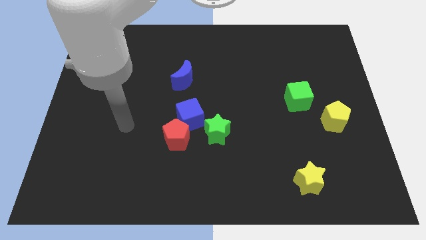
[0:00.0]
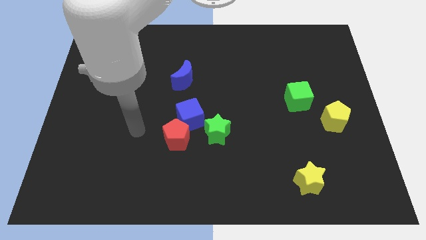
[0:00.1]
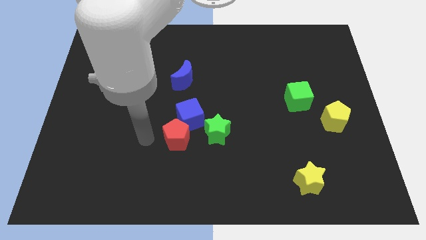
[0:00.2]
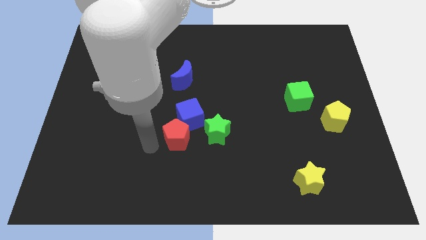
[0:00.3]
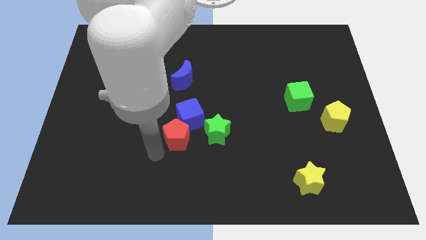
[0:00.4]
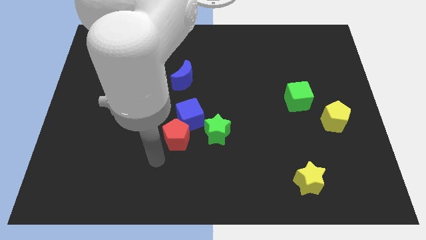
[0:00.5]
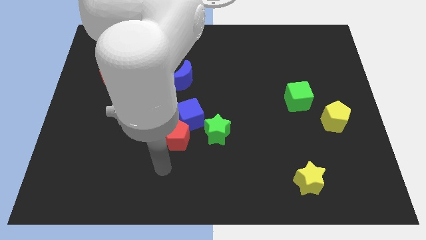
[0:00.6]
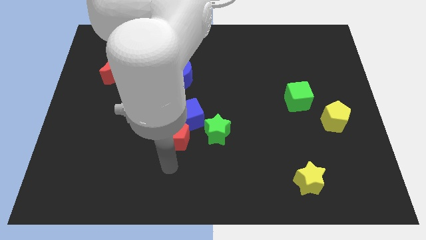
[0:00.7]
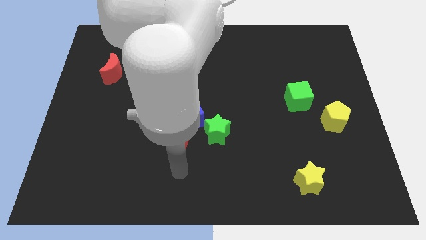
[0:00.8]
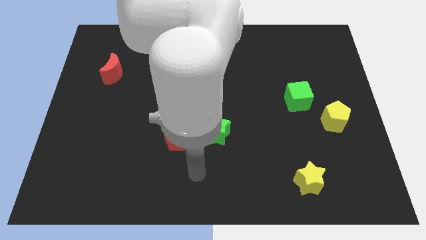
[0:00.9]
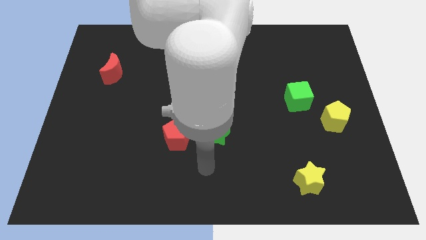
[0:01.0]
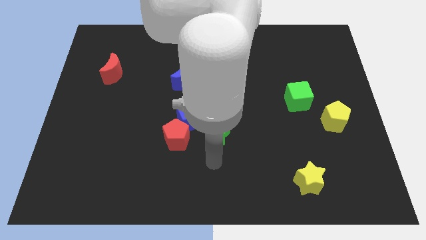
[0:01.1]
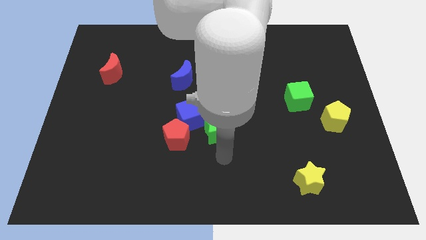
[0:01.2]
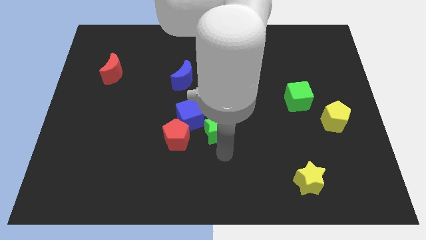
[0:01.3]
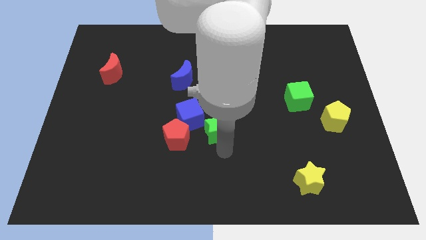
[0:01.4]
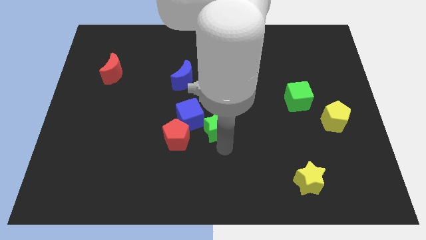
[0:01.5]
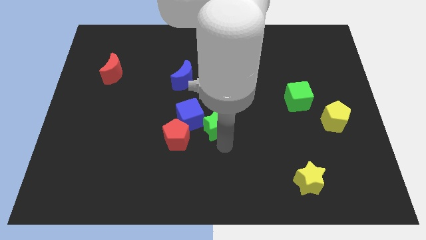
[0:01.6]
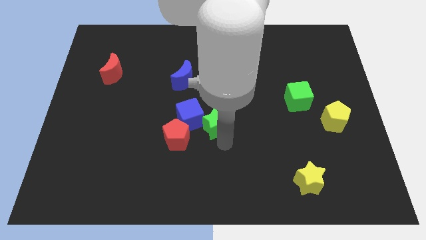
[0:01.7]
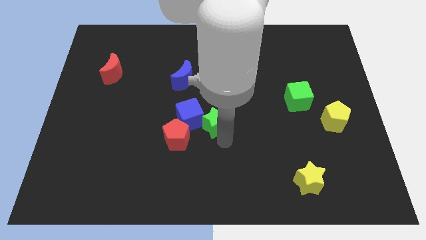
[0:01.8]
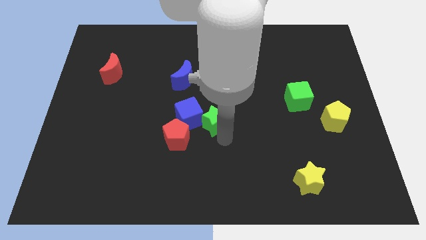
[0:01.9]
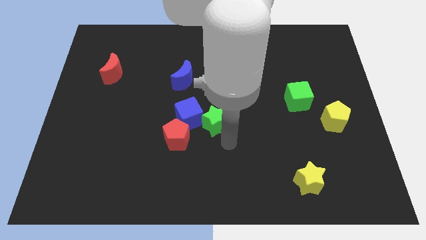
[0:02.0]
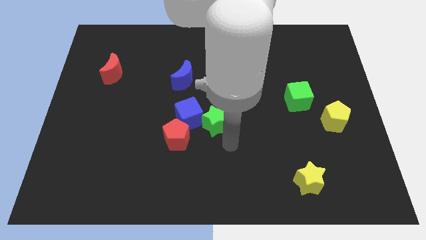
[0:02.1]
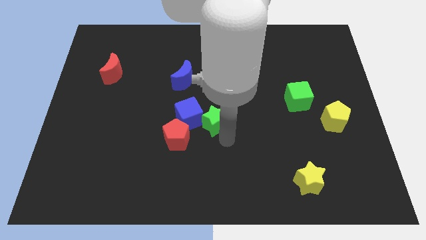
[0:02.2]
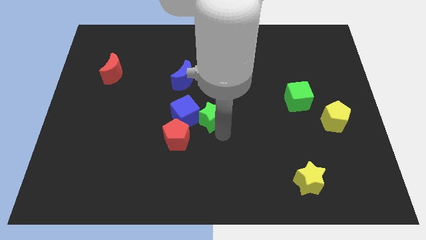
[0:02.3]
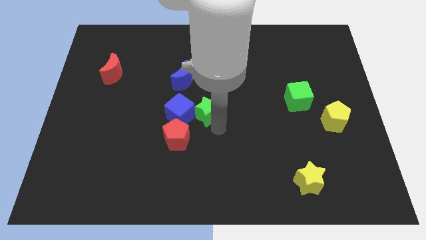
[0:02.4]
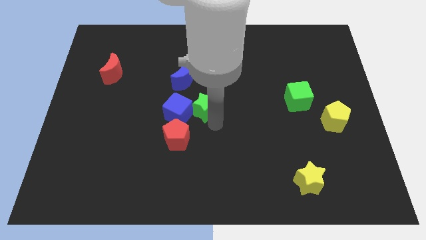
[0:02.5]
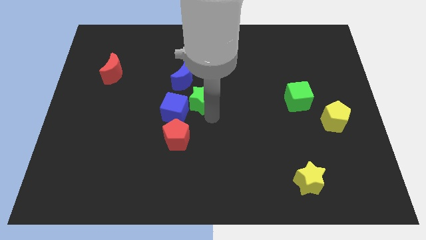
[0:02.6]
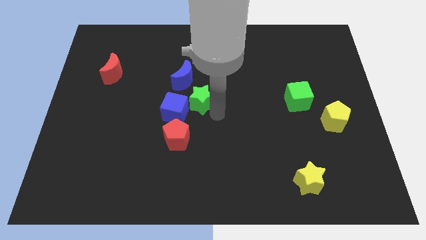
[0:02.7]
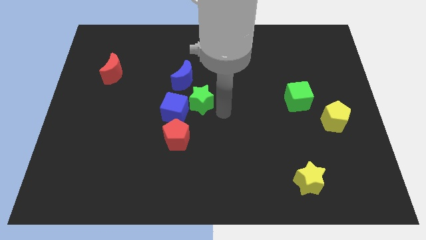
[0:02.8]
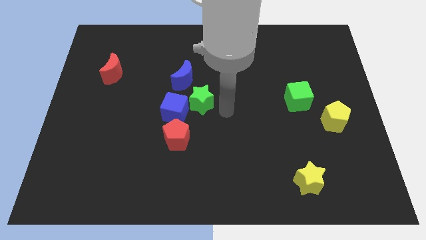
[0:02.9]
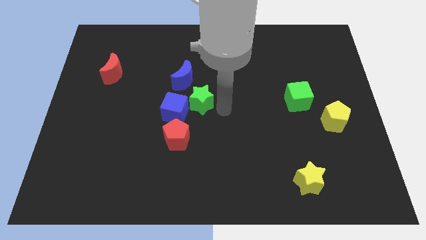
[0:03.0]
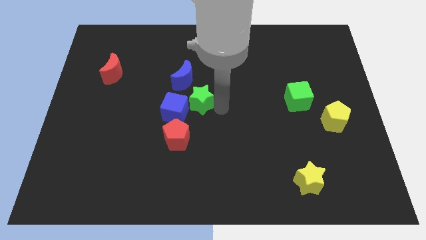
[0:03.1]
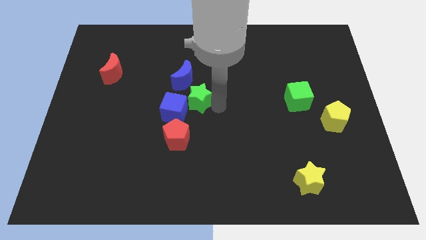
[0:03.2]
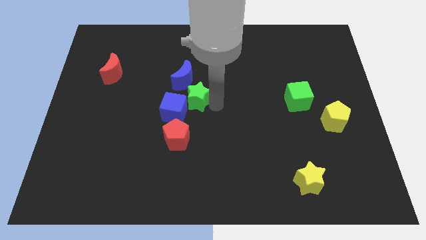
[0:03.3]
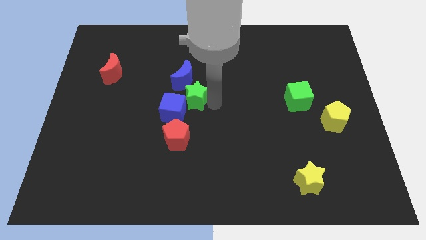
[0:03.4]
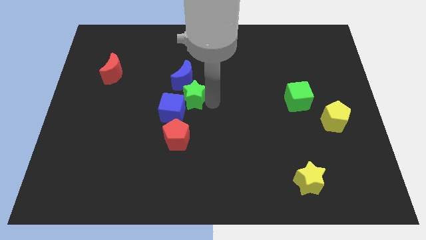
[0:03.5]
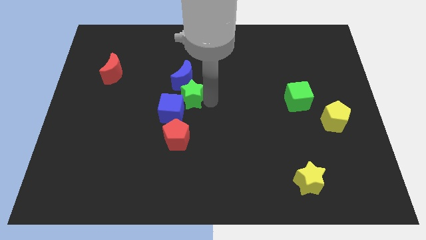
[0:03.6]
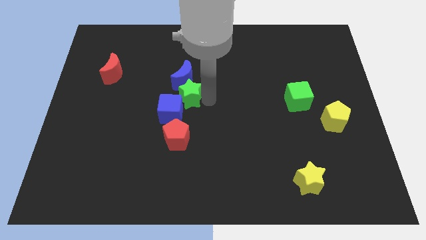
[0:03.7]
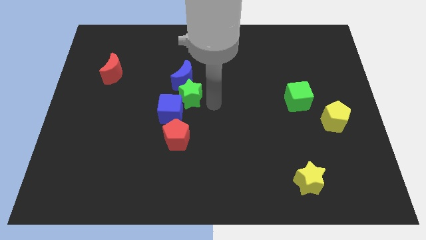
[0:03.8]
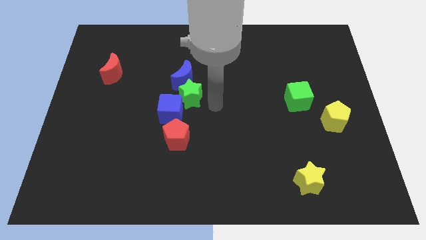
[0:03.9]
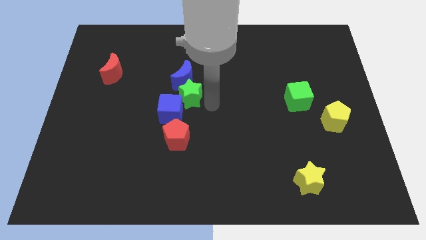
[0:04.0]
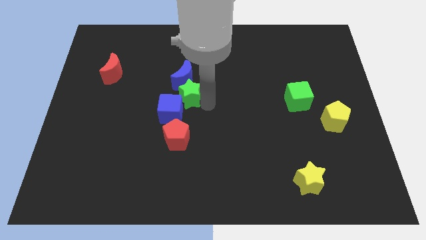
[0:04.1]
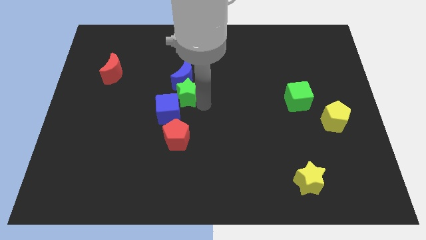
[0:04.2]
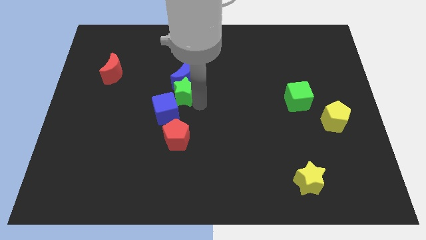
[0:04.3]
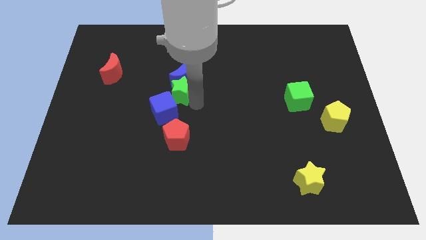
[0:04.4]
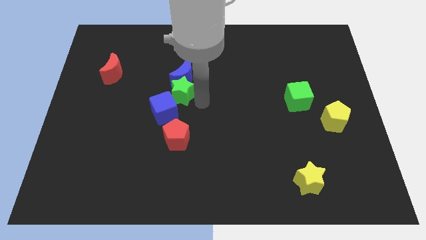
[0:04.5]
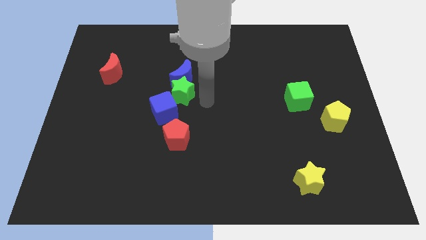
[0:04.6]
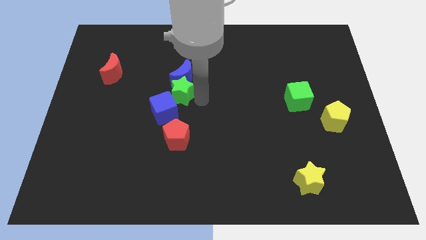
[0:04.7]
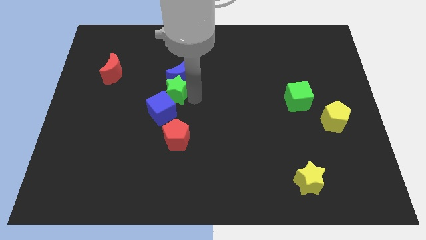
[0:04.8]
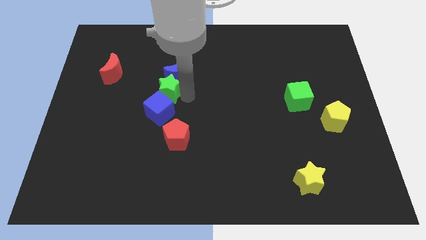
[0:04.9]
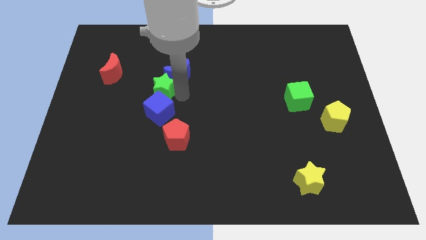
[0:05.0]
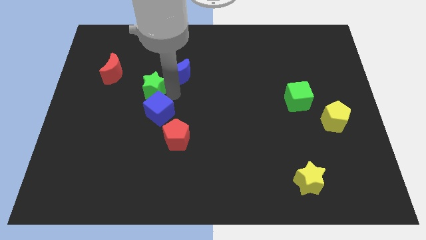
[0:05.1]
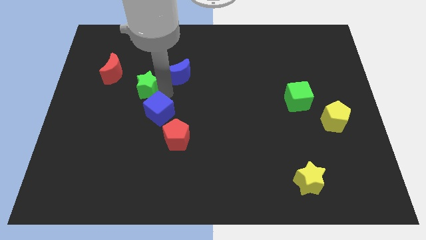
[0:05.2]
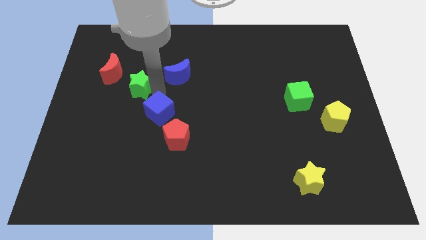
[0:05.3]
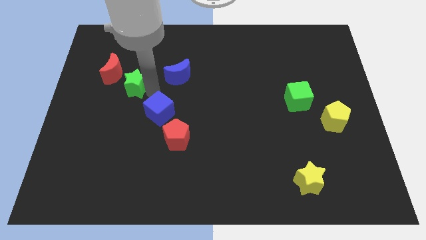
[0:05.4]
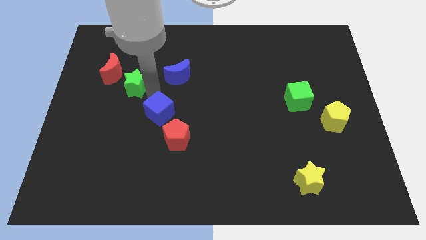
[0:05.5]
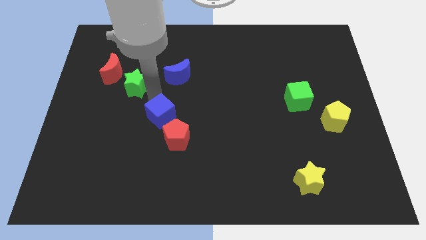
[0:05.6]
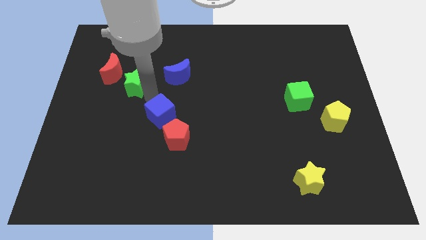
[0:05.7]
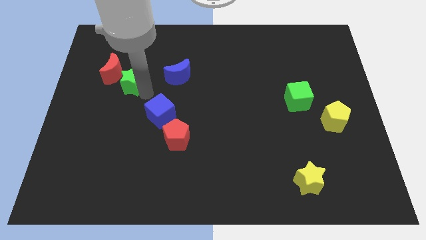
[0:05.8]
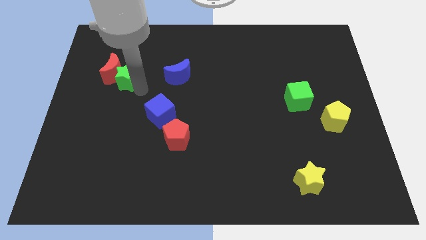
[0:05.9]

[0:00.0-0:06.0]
push the green star to the red moon

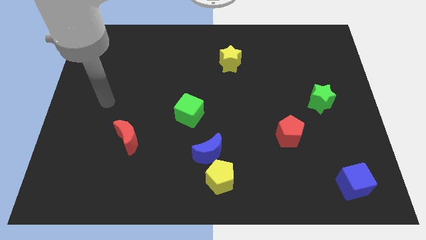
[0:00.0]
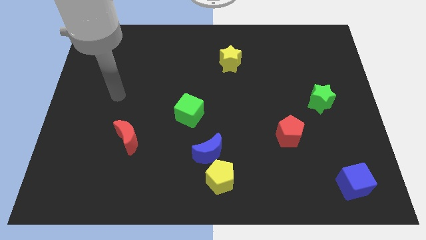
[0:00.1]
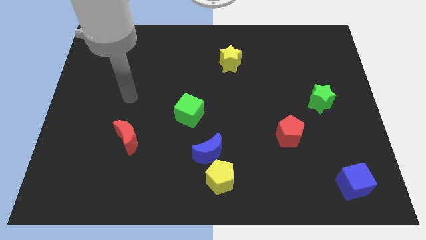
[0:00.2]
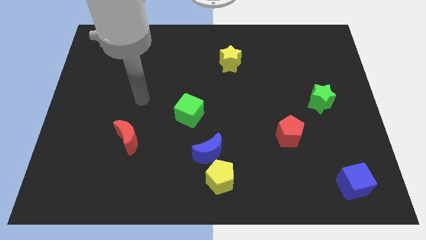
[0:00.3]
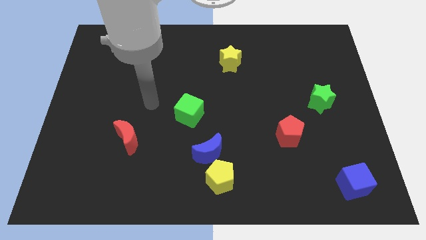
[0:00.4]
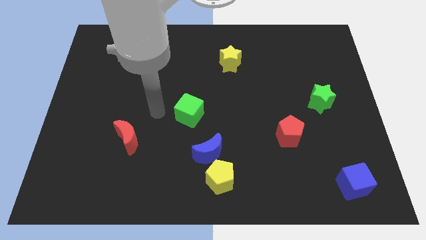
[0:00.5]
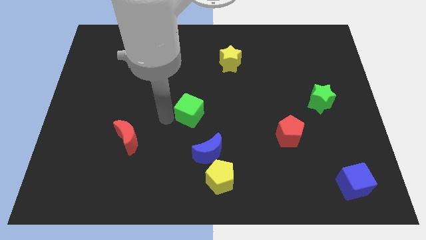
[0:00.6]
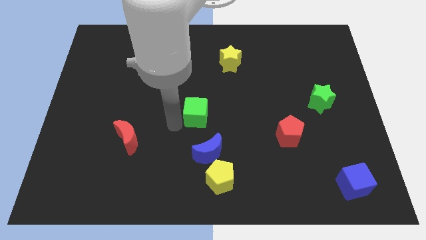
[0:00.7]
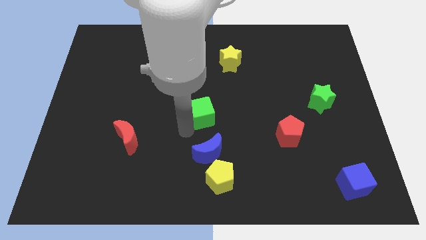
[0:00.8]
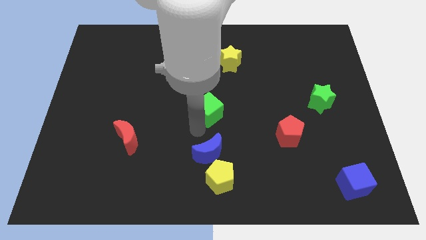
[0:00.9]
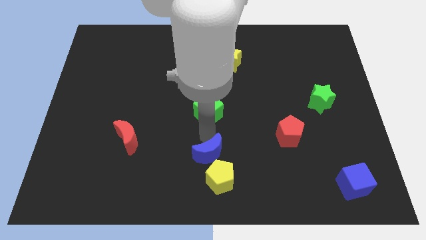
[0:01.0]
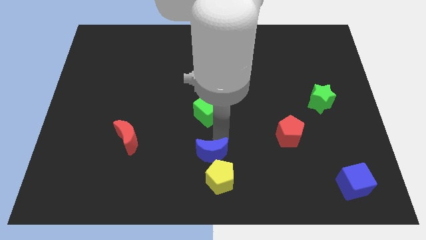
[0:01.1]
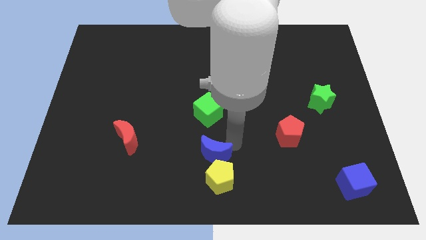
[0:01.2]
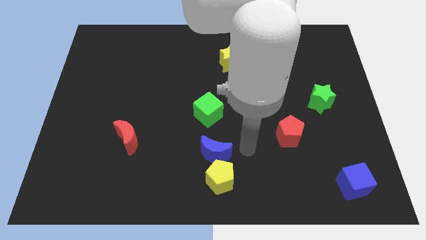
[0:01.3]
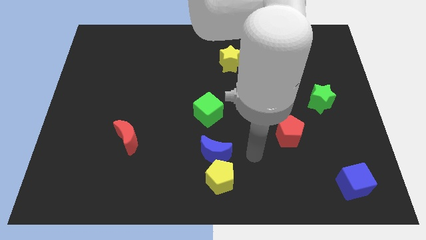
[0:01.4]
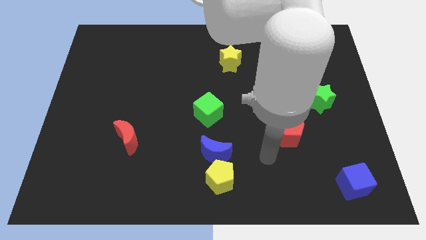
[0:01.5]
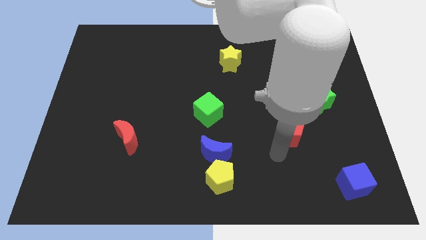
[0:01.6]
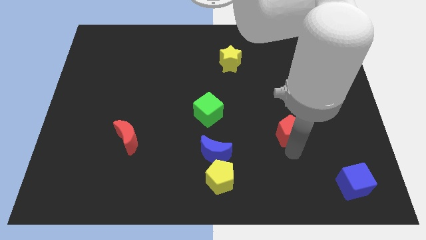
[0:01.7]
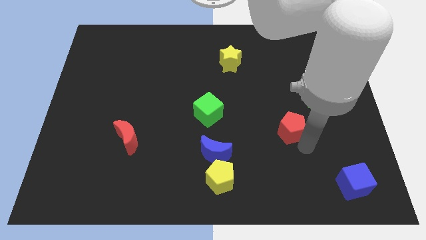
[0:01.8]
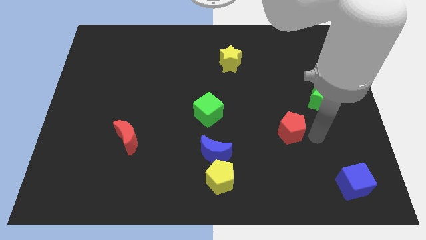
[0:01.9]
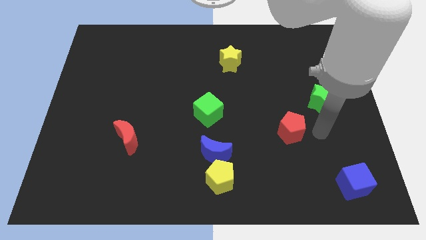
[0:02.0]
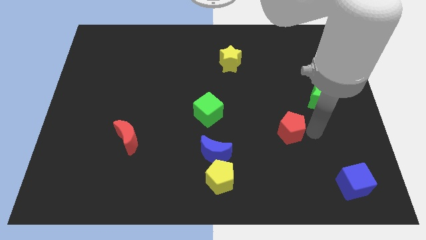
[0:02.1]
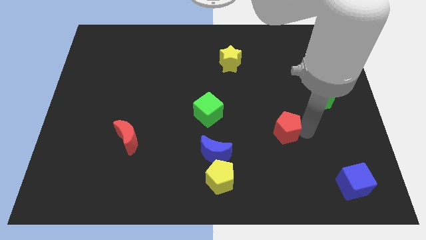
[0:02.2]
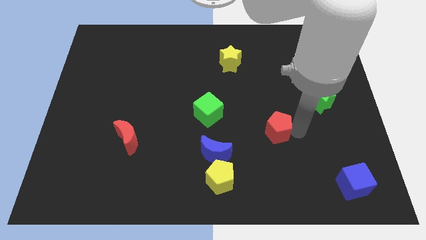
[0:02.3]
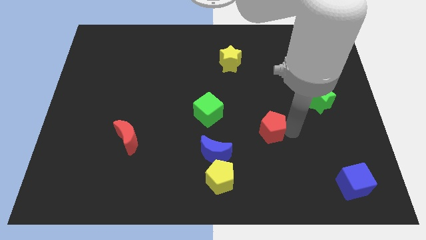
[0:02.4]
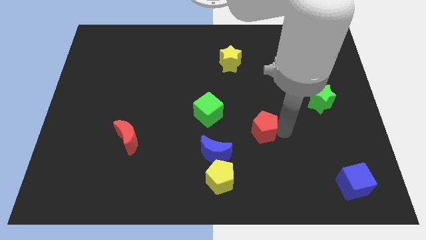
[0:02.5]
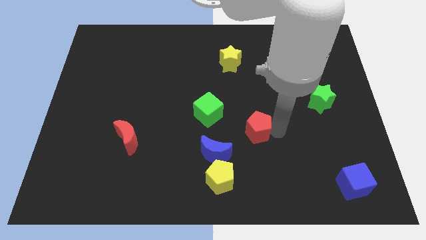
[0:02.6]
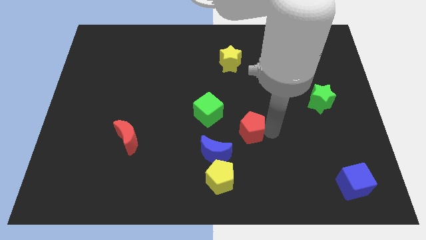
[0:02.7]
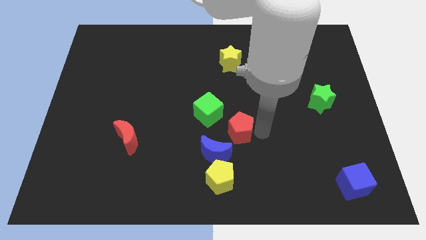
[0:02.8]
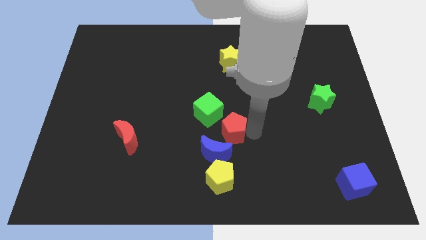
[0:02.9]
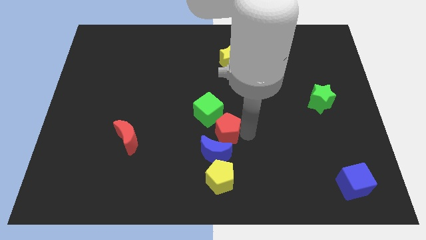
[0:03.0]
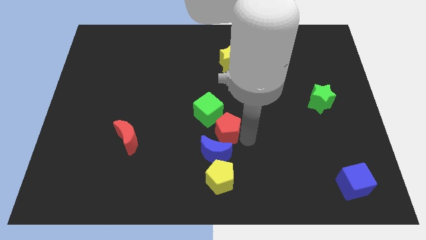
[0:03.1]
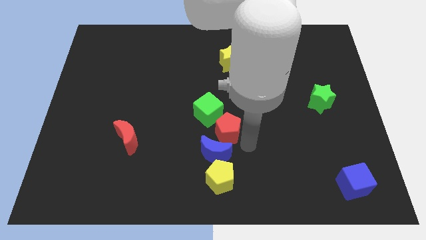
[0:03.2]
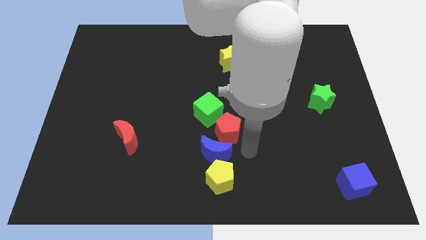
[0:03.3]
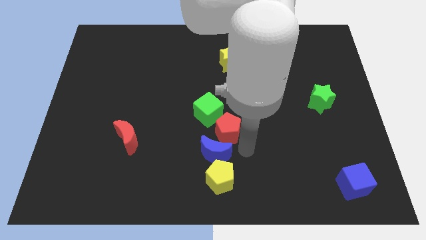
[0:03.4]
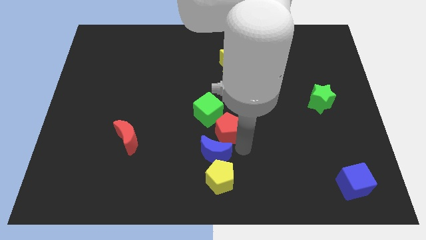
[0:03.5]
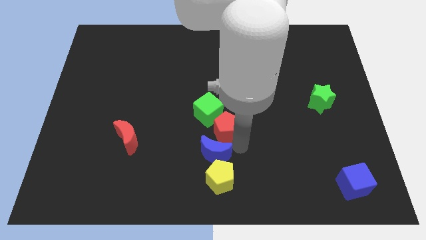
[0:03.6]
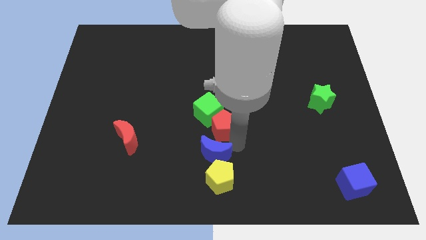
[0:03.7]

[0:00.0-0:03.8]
put the red pentagon to the green cube
